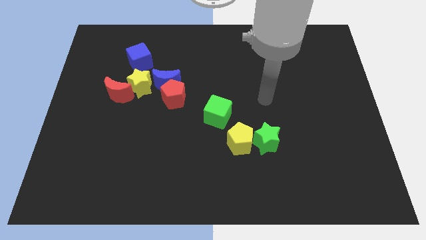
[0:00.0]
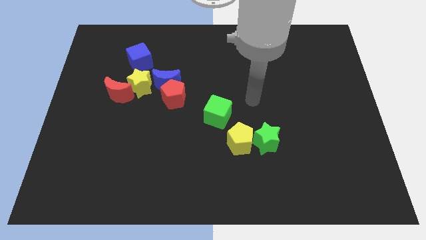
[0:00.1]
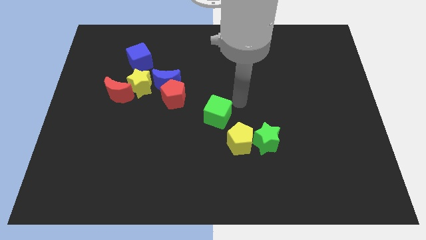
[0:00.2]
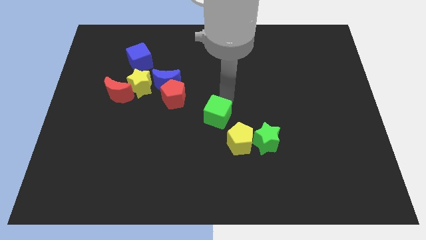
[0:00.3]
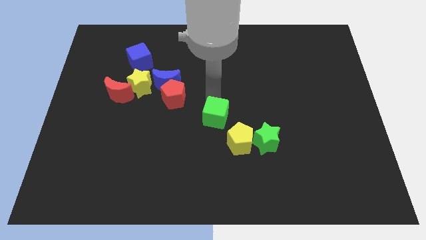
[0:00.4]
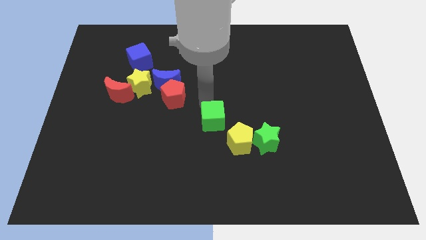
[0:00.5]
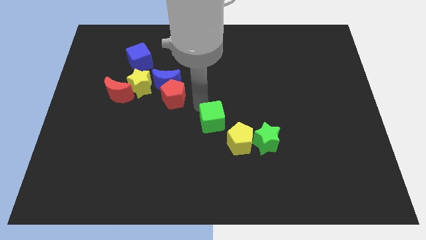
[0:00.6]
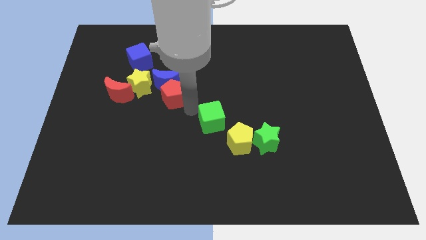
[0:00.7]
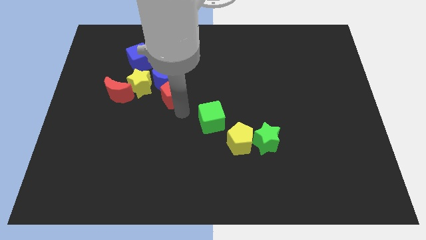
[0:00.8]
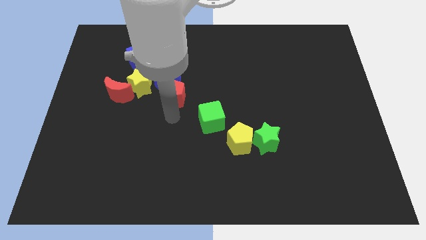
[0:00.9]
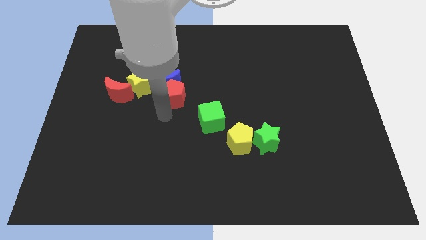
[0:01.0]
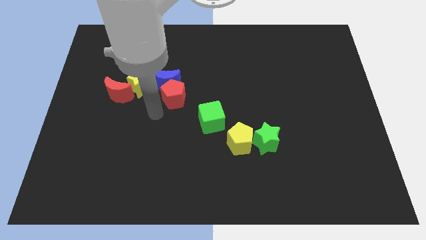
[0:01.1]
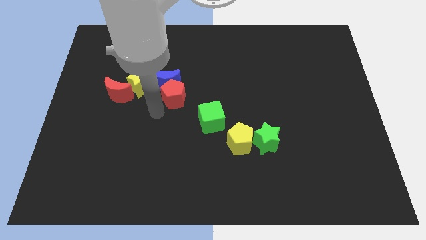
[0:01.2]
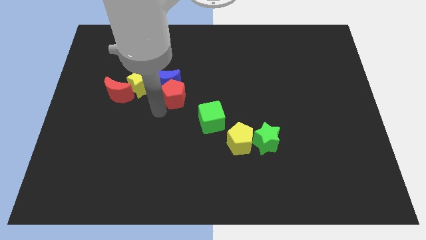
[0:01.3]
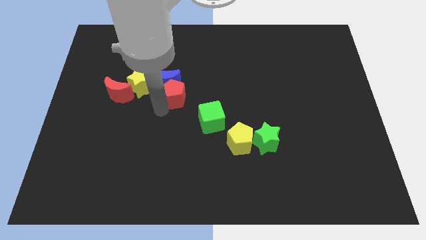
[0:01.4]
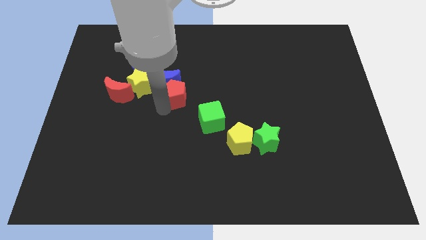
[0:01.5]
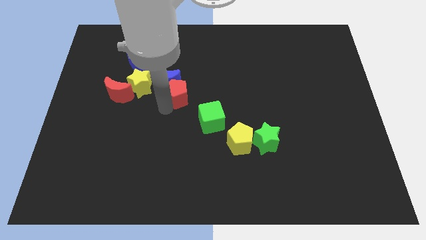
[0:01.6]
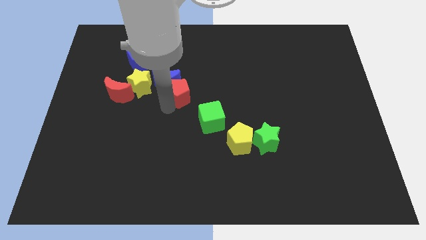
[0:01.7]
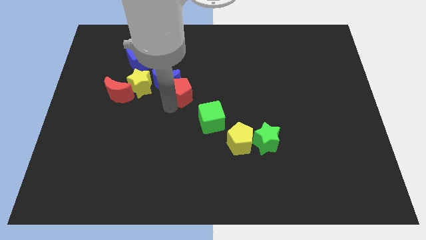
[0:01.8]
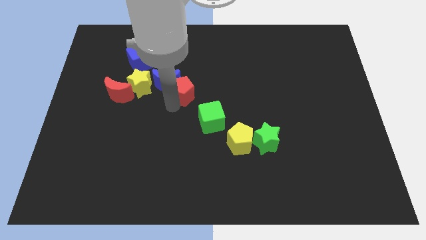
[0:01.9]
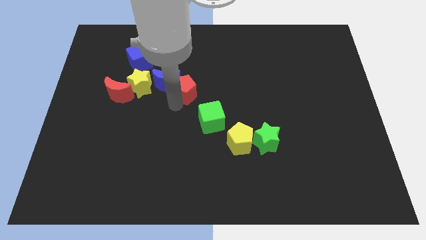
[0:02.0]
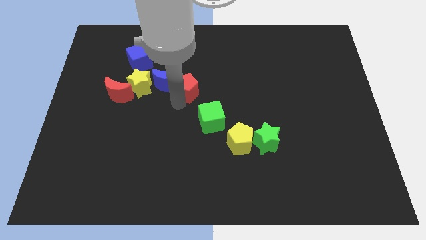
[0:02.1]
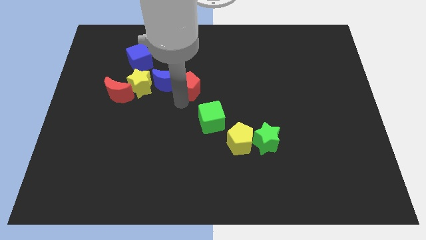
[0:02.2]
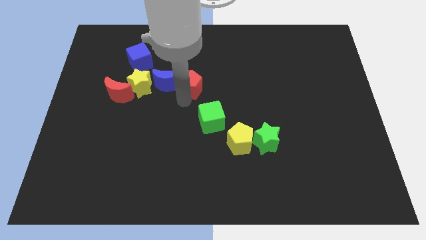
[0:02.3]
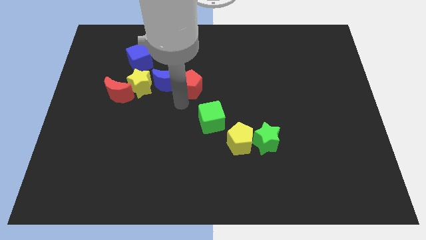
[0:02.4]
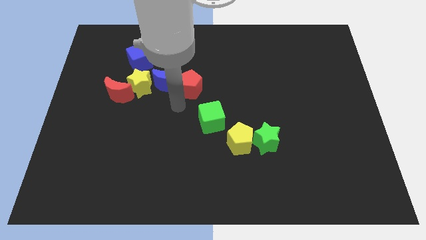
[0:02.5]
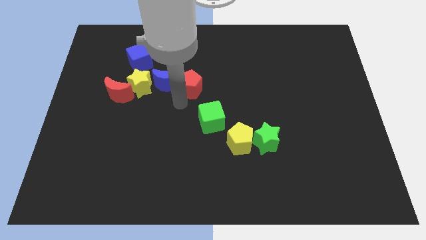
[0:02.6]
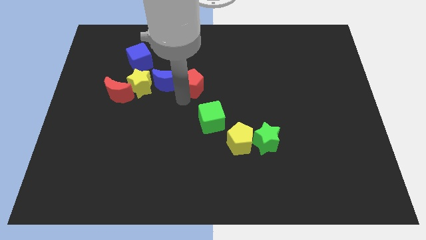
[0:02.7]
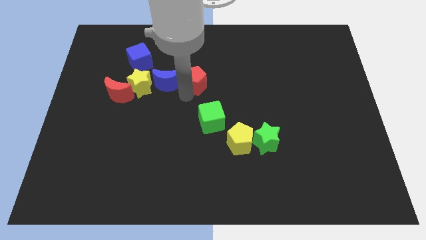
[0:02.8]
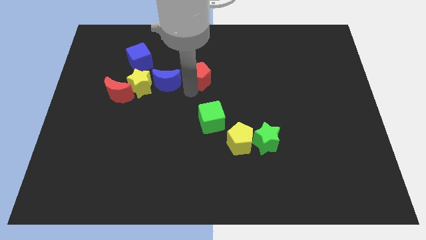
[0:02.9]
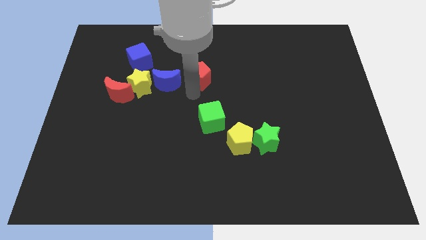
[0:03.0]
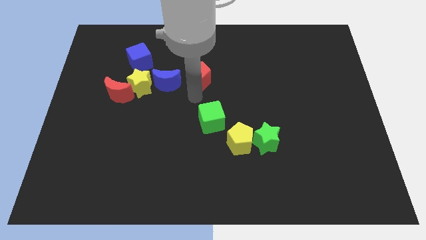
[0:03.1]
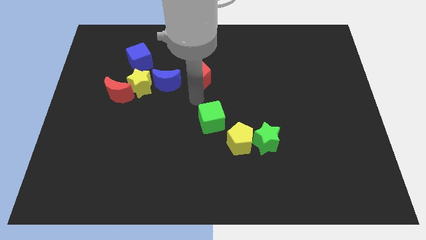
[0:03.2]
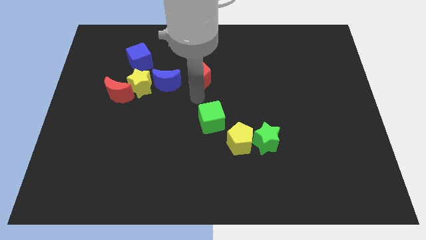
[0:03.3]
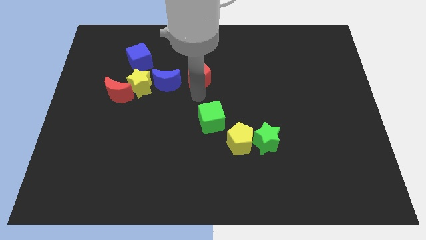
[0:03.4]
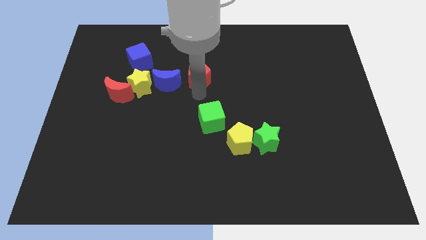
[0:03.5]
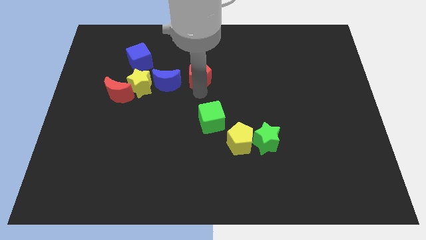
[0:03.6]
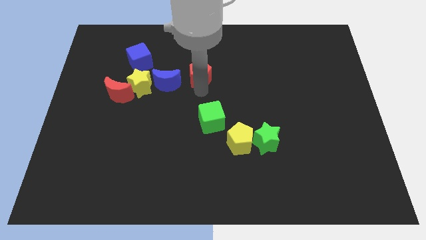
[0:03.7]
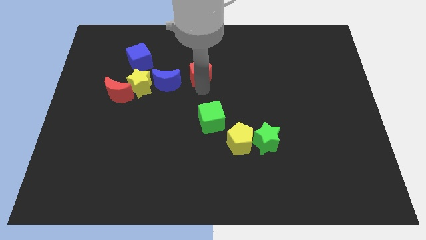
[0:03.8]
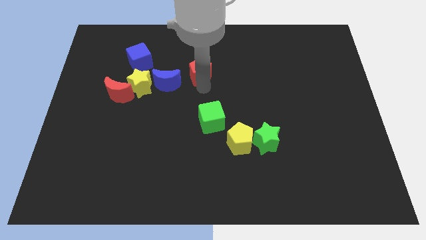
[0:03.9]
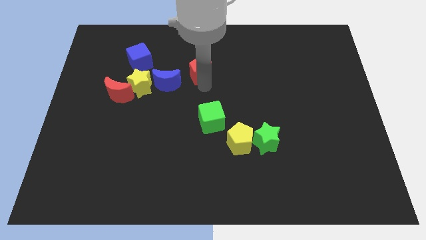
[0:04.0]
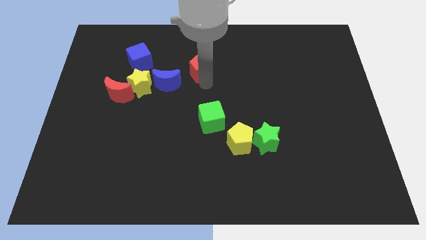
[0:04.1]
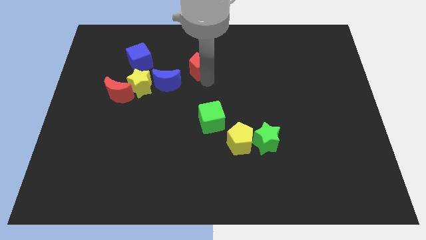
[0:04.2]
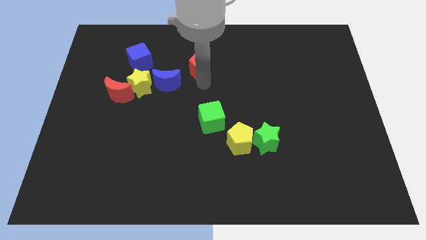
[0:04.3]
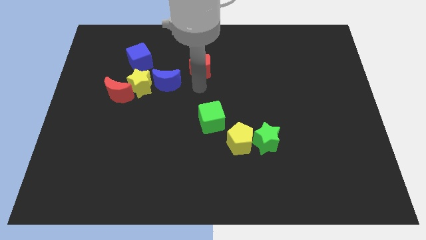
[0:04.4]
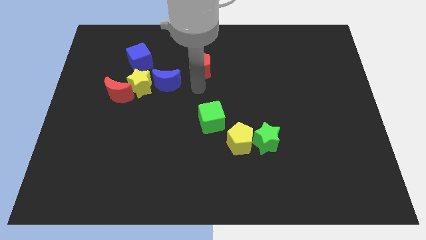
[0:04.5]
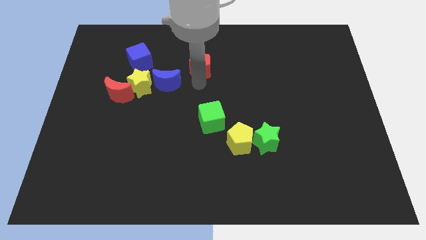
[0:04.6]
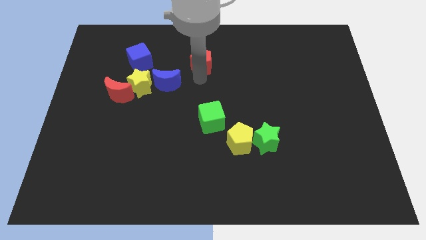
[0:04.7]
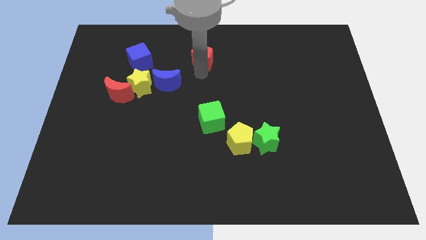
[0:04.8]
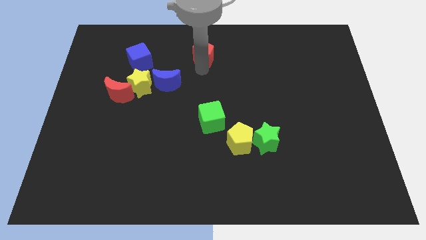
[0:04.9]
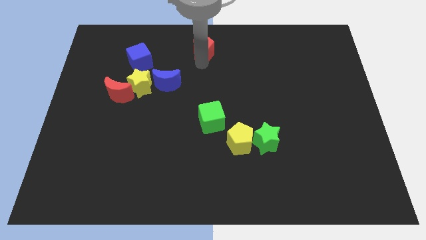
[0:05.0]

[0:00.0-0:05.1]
slide the red pentagon to the top side

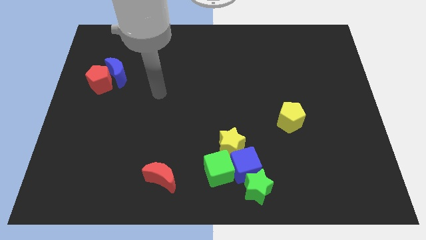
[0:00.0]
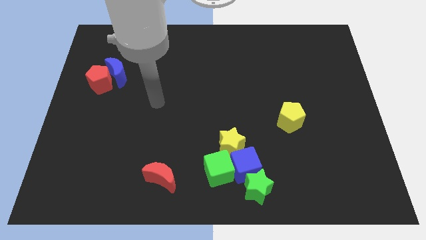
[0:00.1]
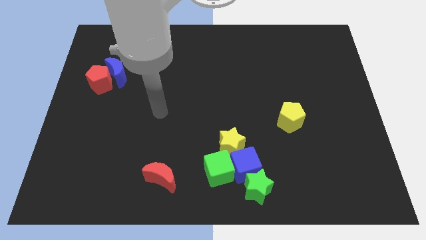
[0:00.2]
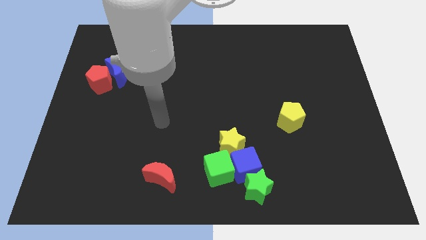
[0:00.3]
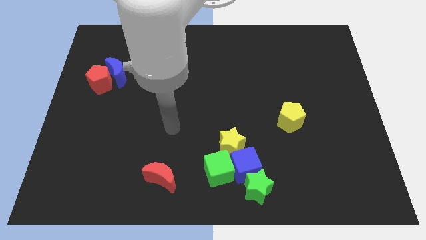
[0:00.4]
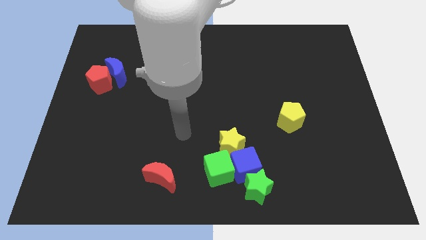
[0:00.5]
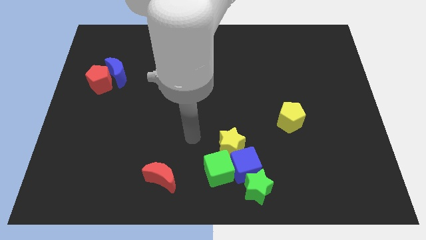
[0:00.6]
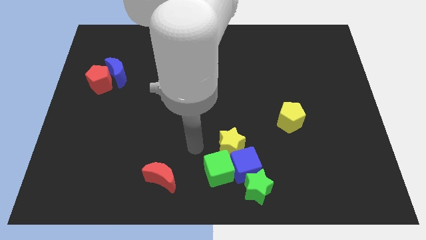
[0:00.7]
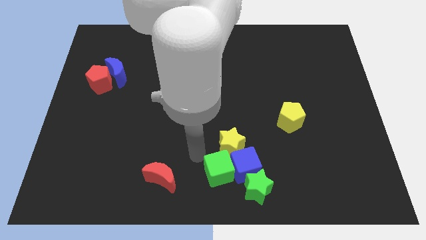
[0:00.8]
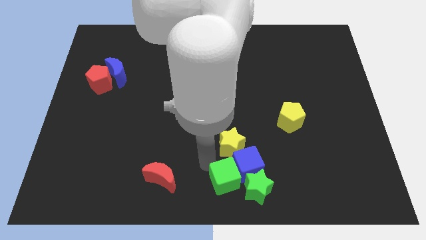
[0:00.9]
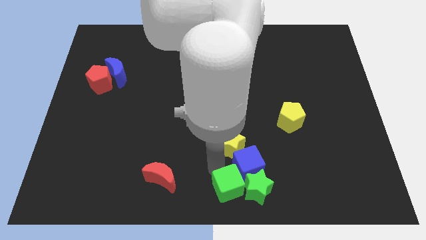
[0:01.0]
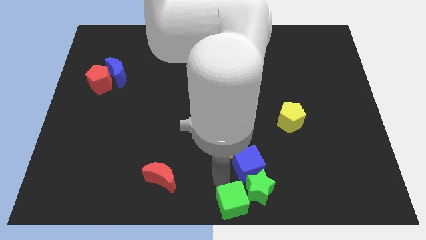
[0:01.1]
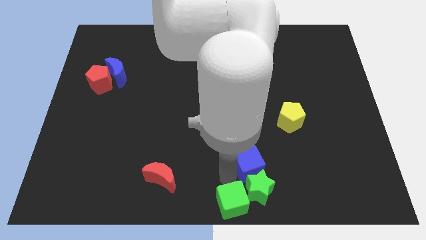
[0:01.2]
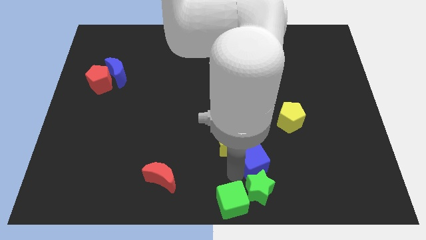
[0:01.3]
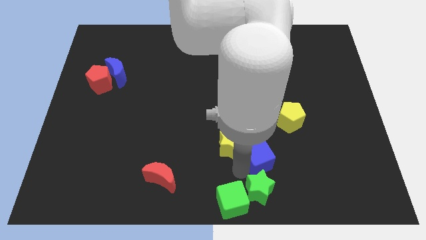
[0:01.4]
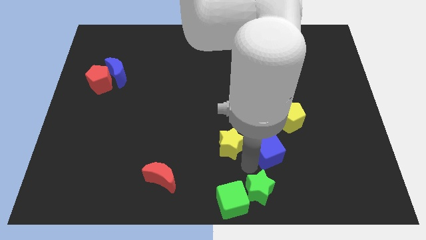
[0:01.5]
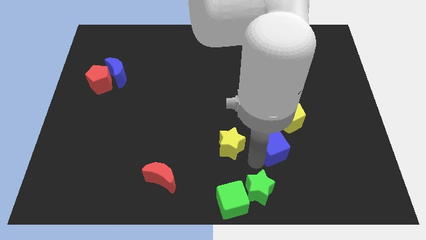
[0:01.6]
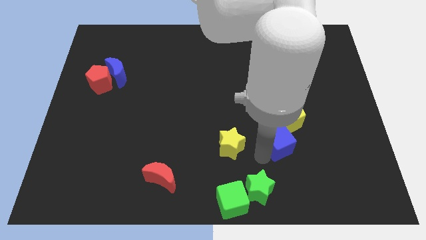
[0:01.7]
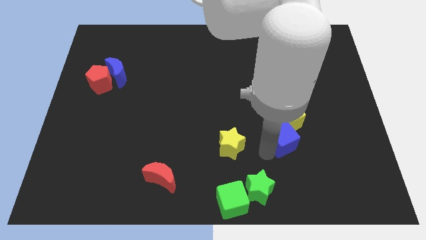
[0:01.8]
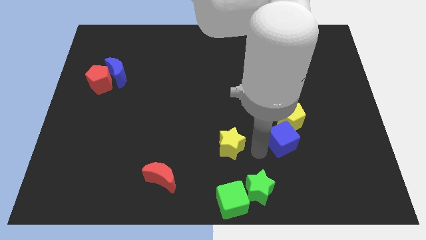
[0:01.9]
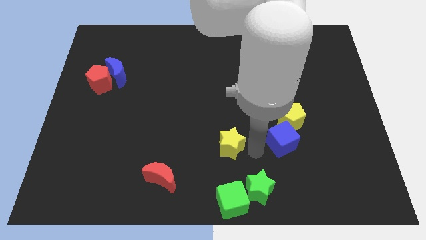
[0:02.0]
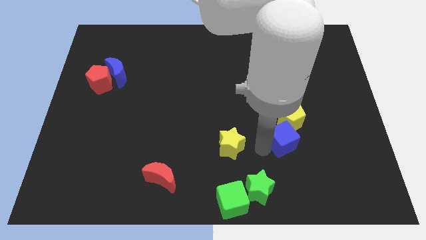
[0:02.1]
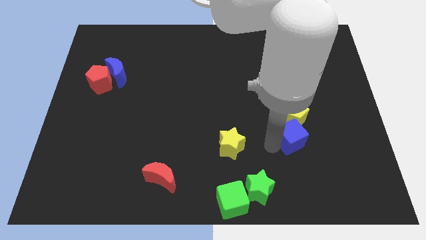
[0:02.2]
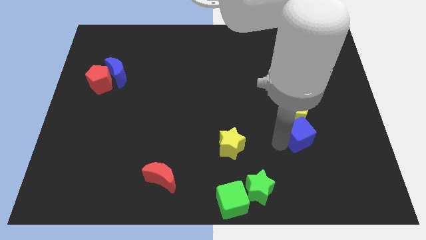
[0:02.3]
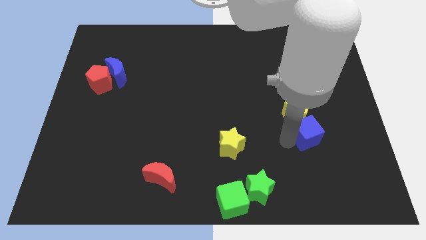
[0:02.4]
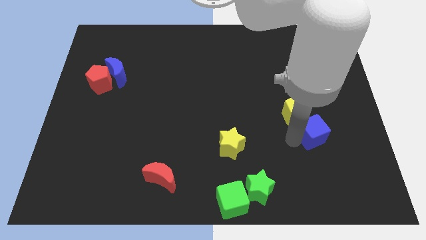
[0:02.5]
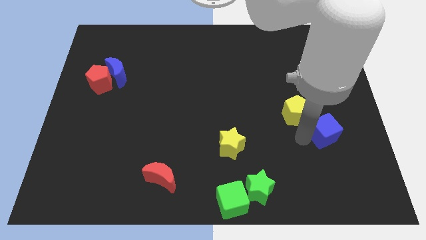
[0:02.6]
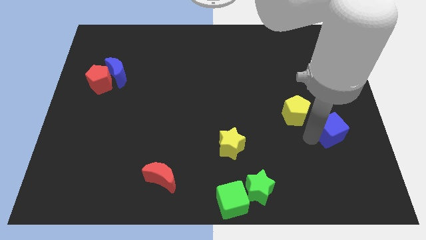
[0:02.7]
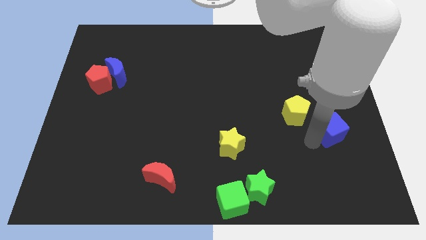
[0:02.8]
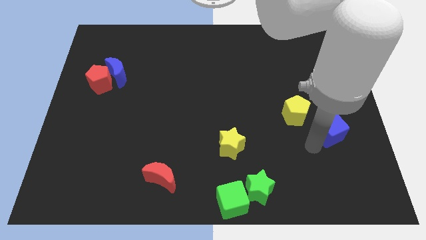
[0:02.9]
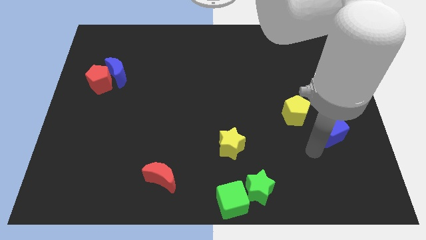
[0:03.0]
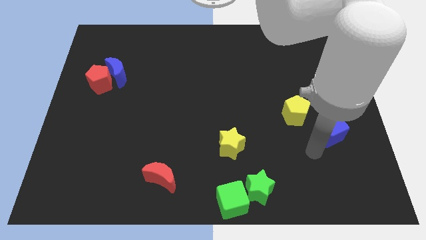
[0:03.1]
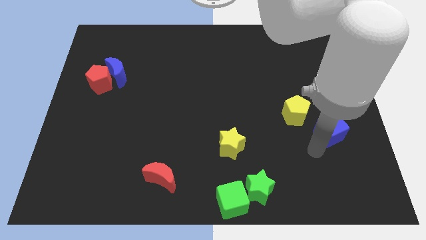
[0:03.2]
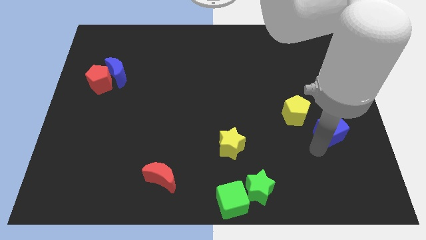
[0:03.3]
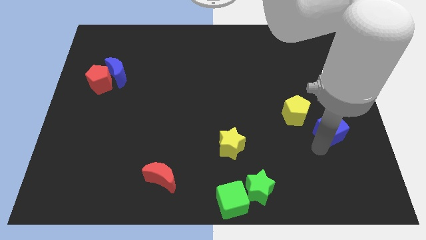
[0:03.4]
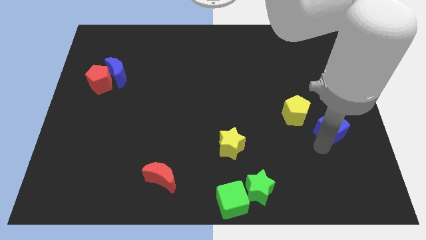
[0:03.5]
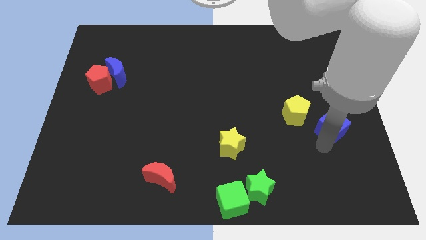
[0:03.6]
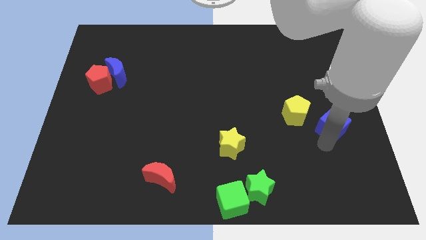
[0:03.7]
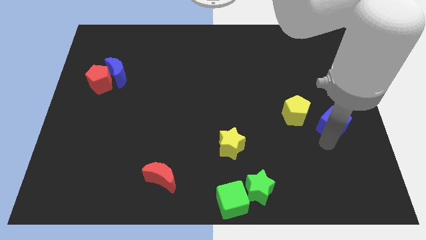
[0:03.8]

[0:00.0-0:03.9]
slide the blue cube to the center right
